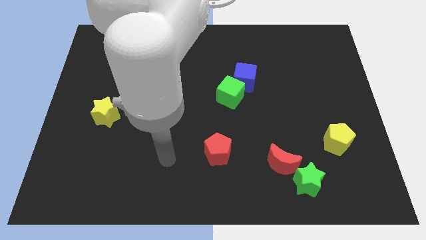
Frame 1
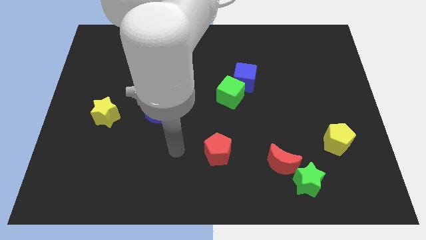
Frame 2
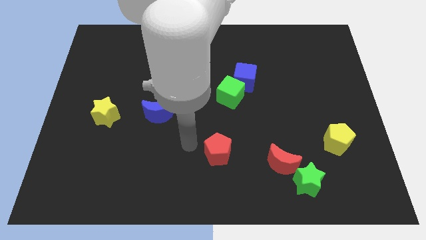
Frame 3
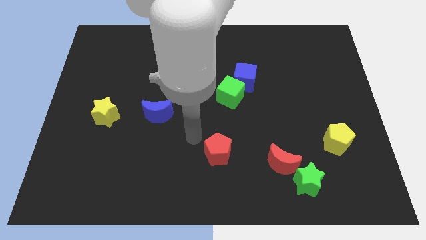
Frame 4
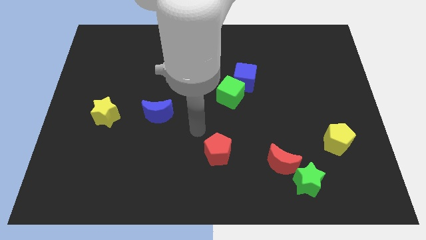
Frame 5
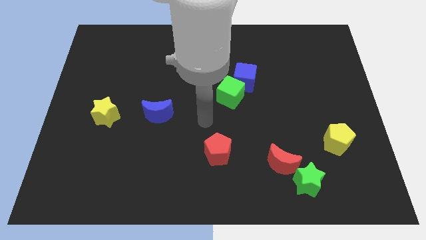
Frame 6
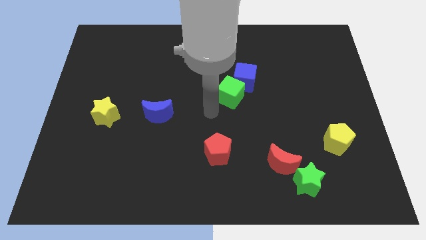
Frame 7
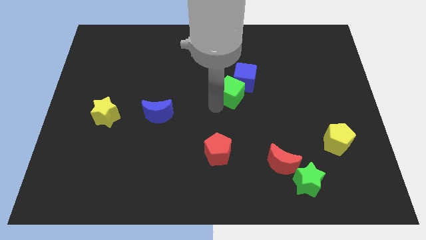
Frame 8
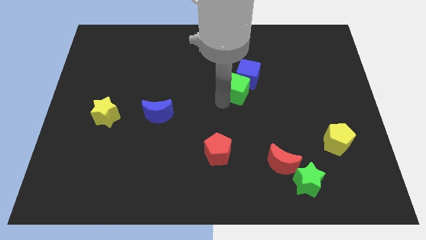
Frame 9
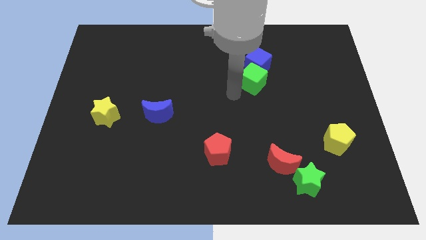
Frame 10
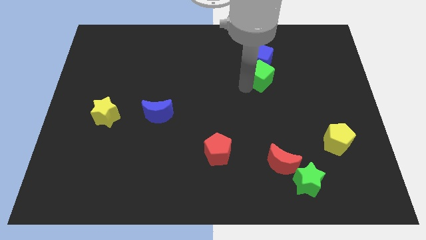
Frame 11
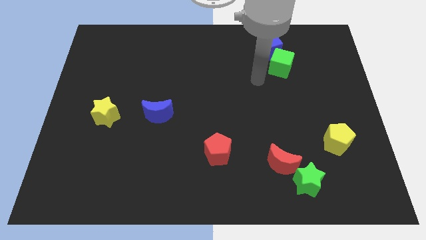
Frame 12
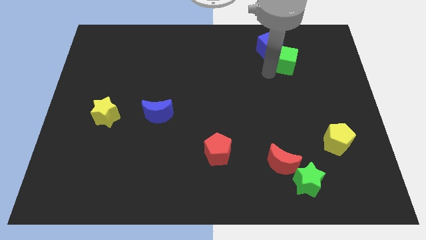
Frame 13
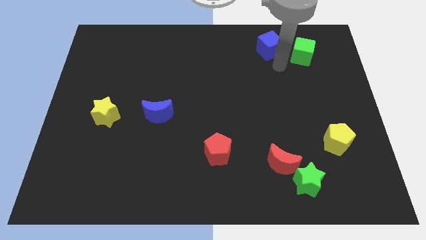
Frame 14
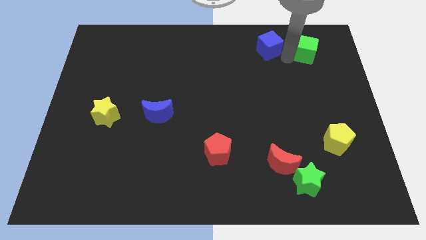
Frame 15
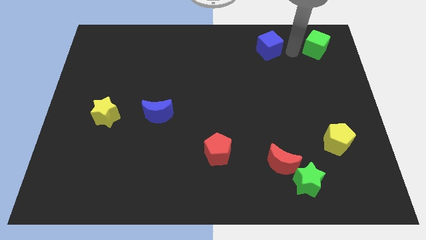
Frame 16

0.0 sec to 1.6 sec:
separate the blue cube from the green cube

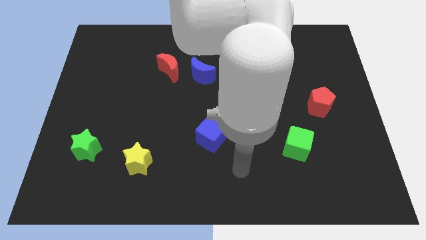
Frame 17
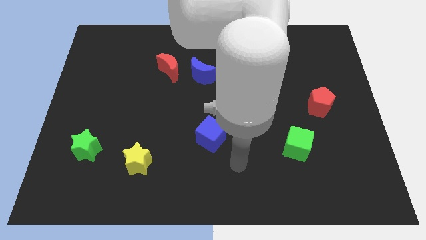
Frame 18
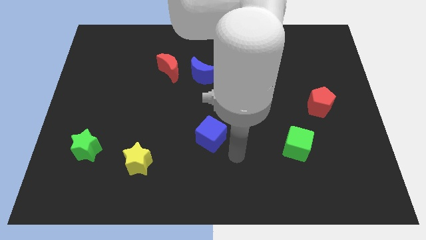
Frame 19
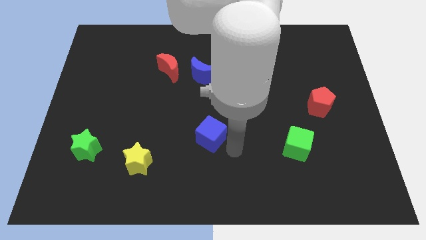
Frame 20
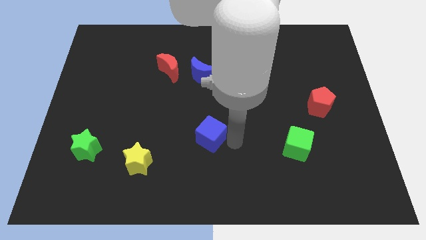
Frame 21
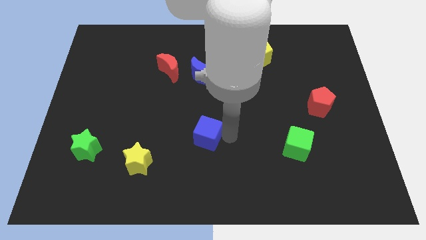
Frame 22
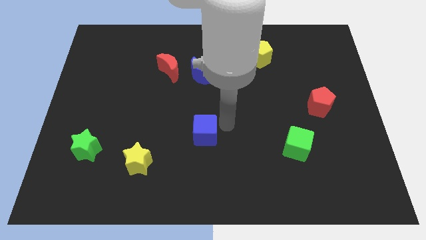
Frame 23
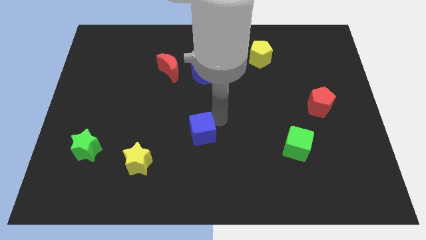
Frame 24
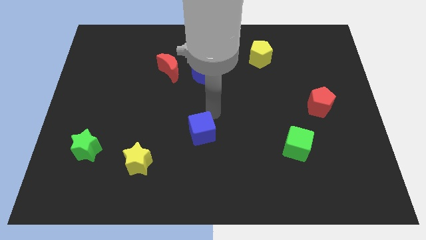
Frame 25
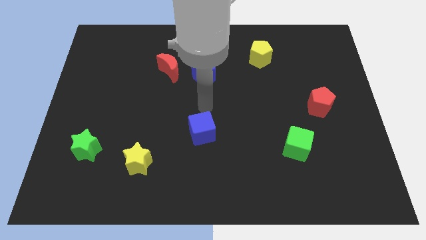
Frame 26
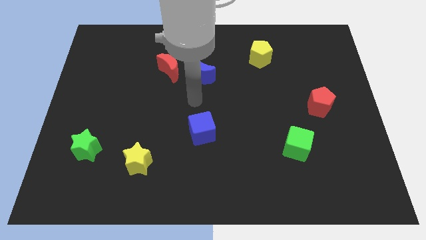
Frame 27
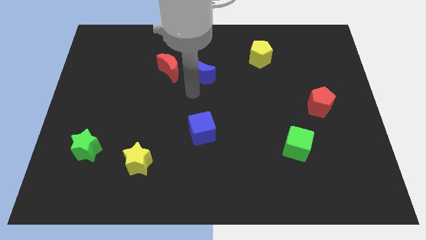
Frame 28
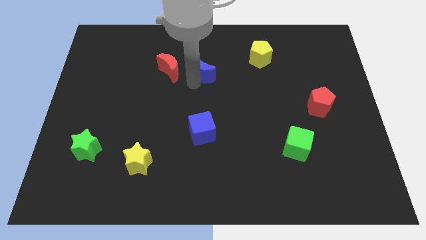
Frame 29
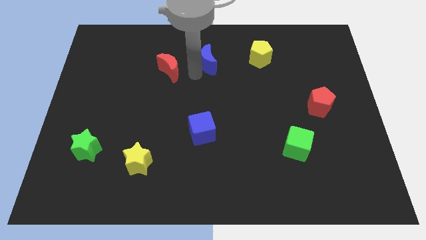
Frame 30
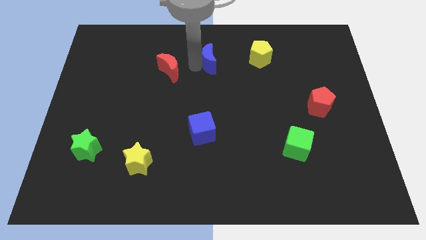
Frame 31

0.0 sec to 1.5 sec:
separate the red moon from the blue moon

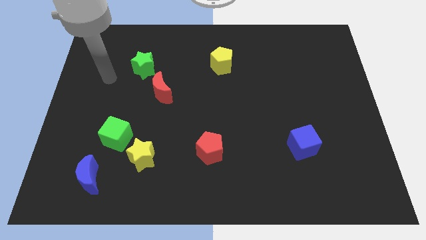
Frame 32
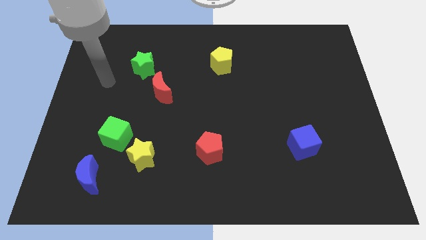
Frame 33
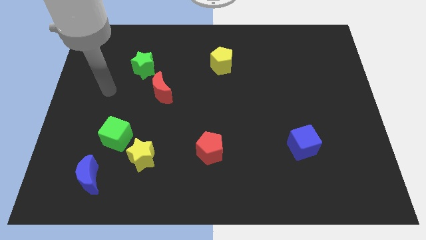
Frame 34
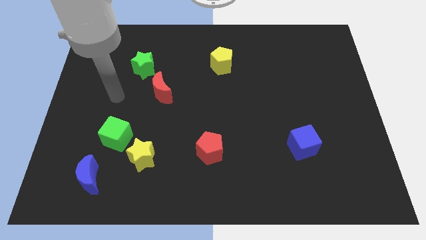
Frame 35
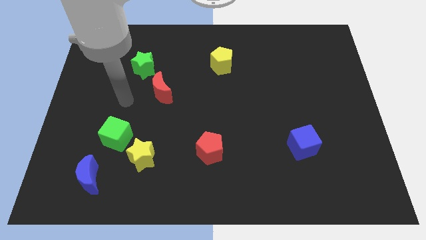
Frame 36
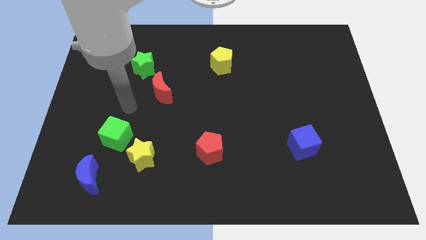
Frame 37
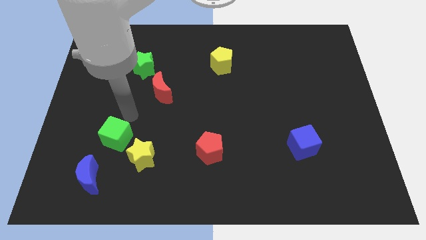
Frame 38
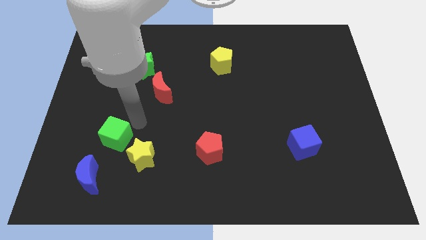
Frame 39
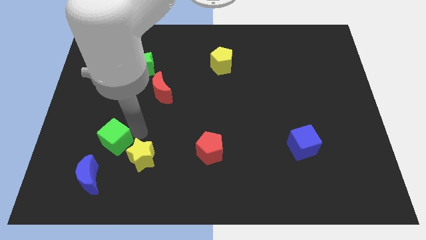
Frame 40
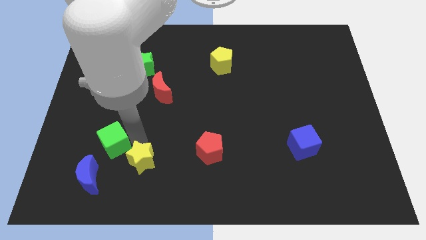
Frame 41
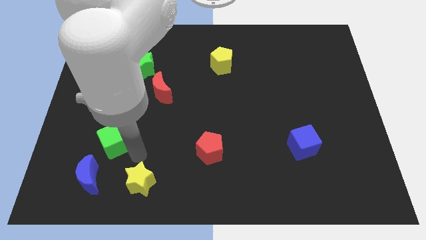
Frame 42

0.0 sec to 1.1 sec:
move the green cube away from the yellow star

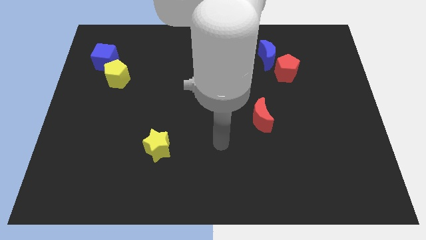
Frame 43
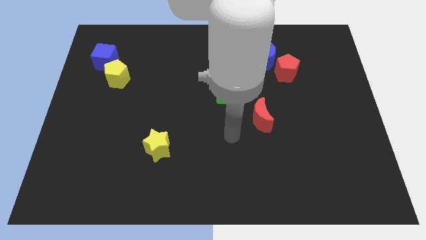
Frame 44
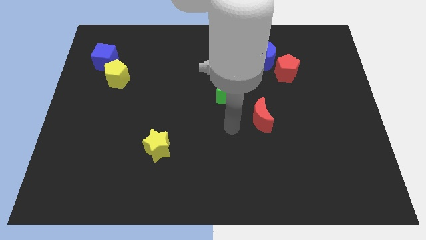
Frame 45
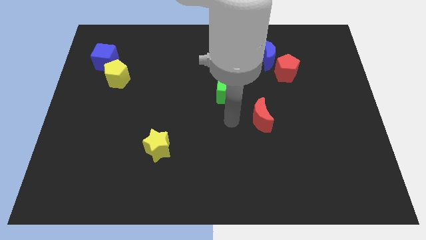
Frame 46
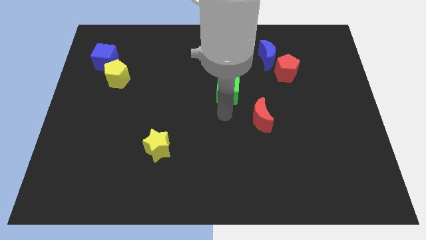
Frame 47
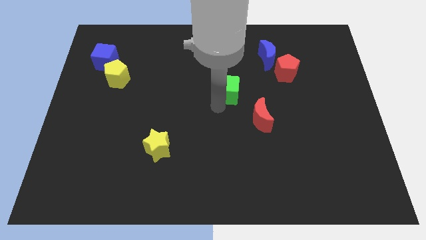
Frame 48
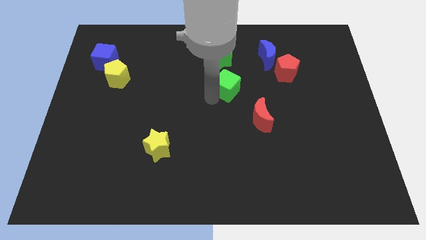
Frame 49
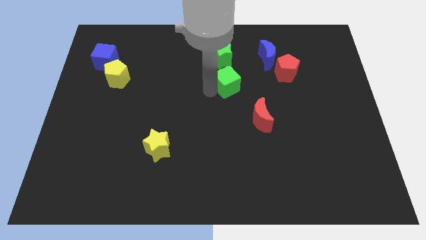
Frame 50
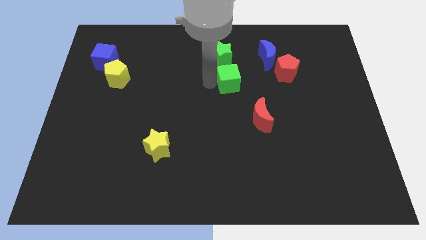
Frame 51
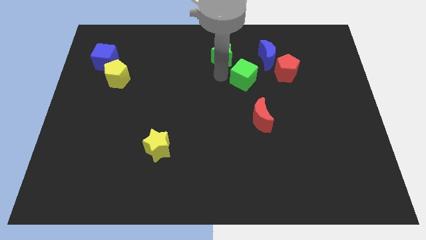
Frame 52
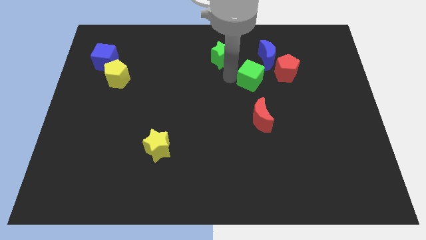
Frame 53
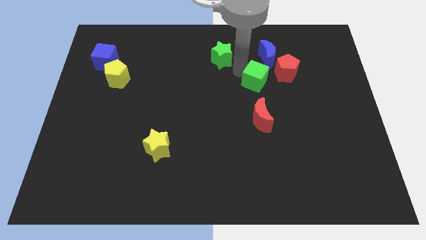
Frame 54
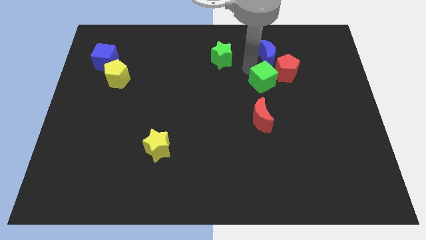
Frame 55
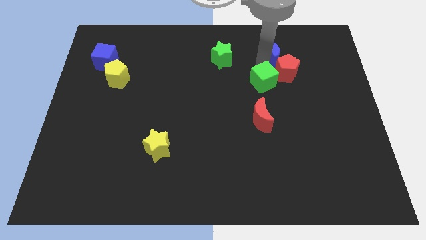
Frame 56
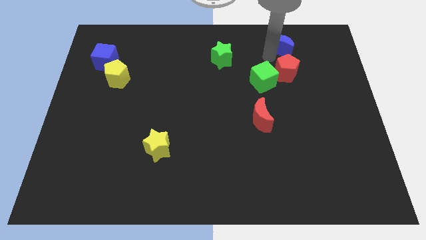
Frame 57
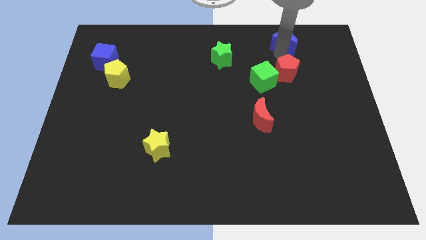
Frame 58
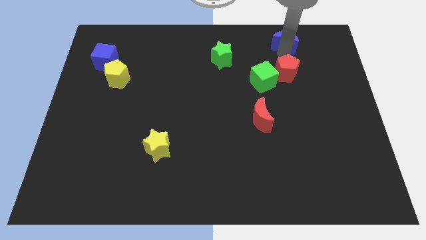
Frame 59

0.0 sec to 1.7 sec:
separate the red pentagon from the blue moon

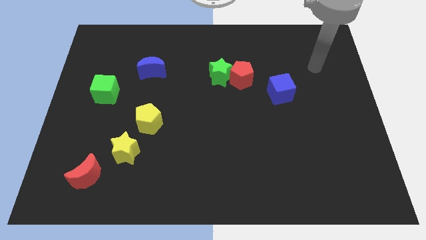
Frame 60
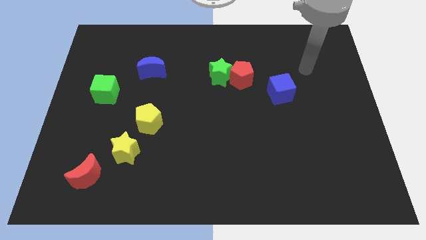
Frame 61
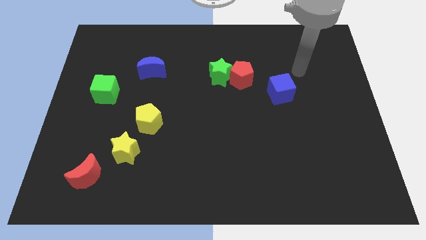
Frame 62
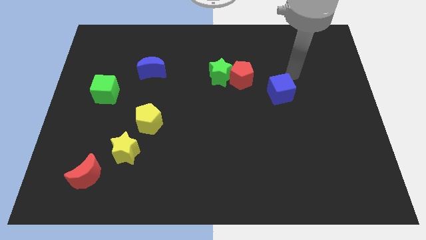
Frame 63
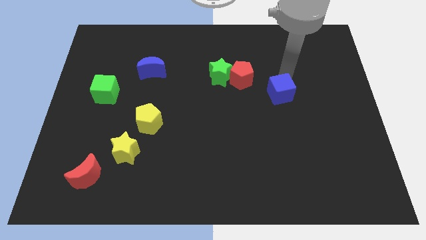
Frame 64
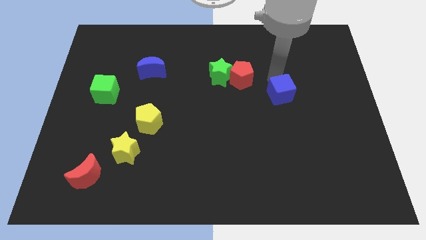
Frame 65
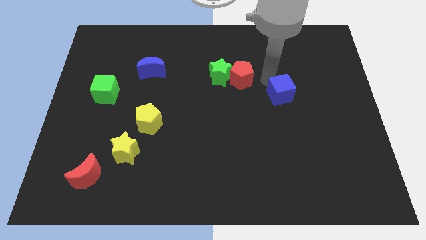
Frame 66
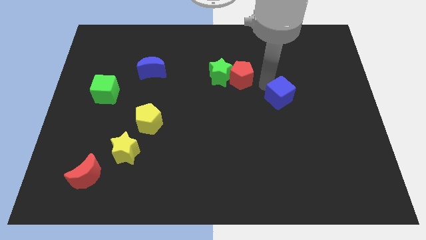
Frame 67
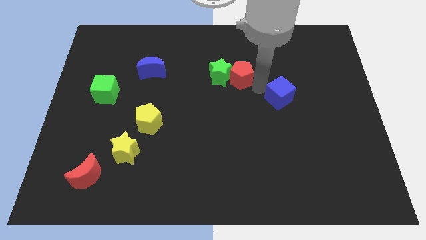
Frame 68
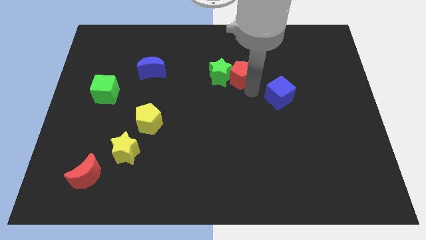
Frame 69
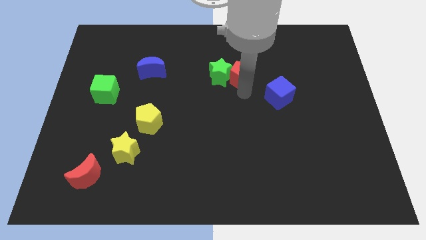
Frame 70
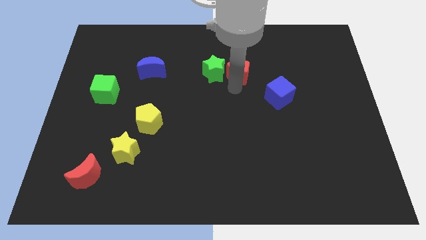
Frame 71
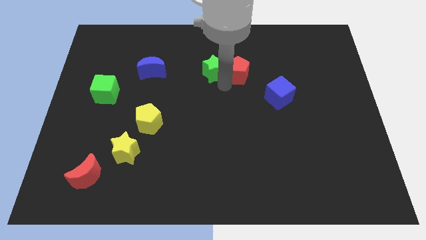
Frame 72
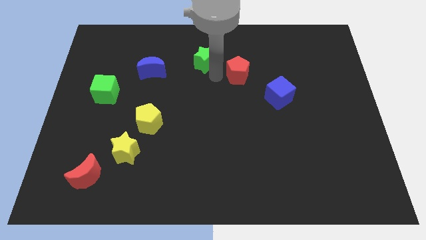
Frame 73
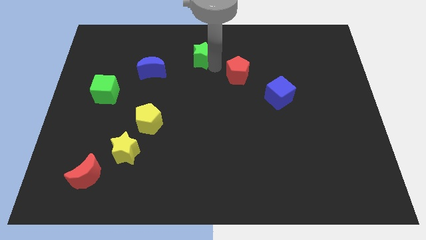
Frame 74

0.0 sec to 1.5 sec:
pull the red pentagon apart from the green star

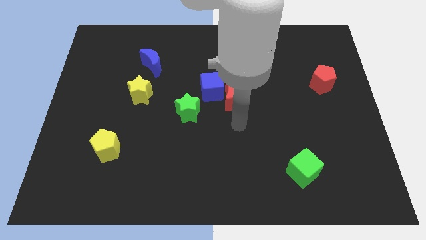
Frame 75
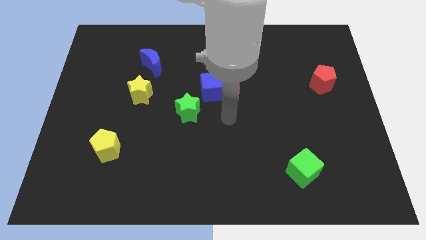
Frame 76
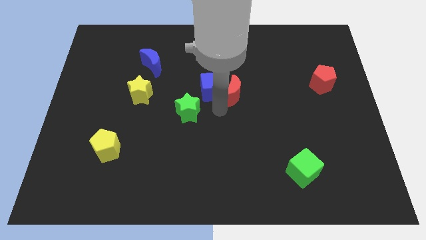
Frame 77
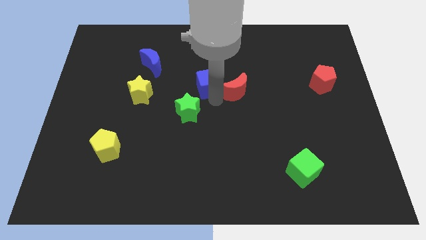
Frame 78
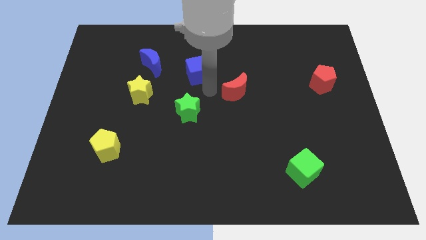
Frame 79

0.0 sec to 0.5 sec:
pull the red moon apart from the blue cube

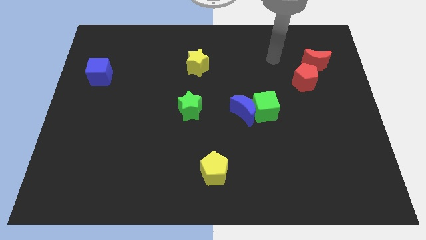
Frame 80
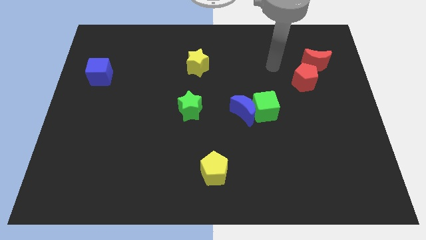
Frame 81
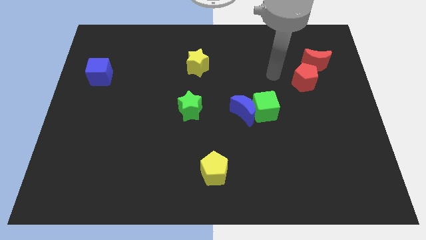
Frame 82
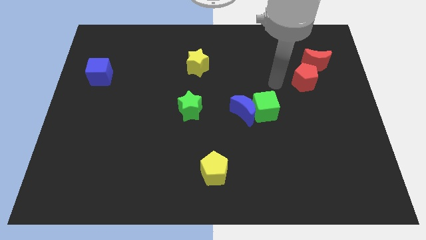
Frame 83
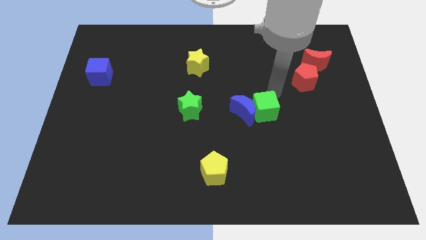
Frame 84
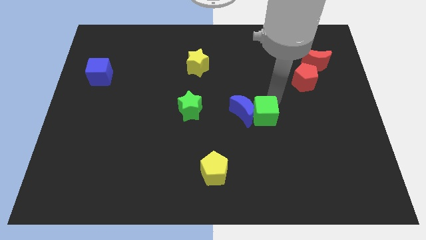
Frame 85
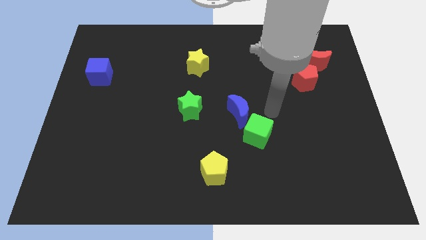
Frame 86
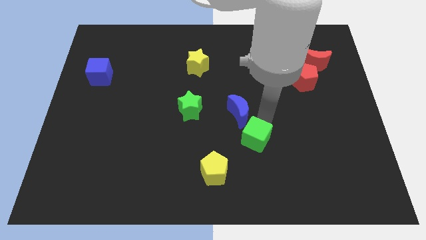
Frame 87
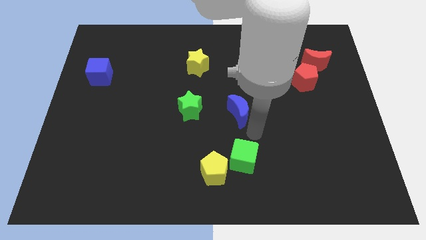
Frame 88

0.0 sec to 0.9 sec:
separate the blue moon from the green cube

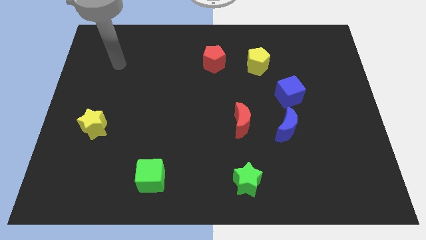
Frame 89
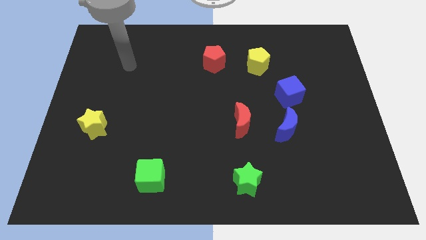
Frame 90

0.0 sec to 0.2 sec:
move the red moon away from the blue moon

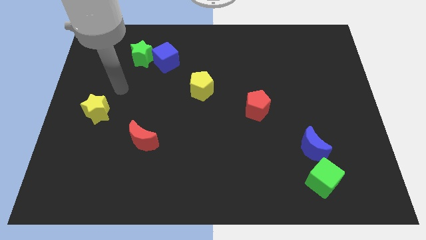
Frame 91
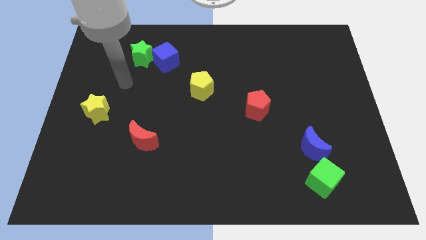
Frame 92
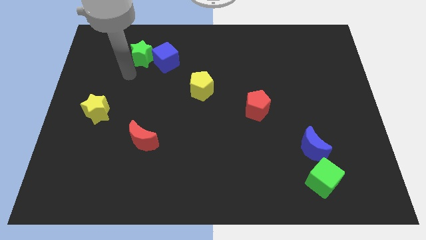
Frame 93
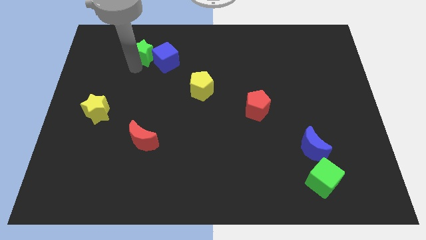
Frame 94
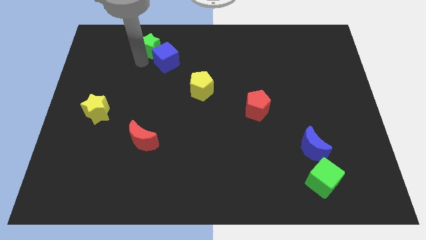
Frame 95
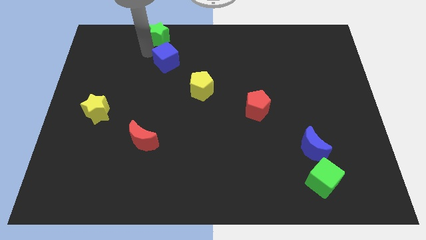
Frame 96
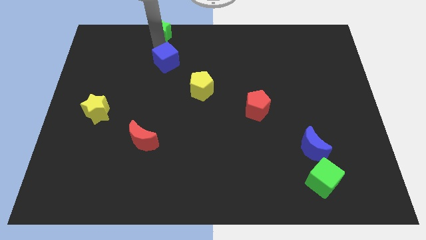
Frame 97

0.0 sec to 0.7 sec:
move the blue cube away from the green star
